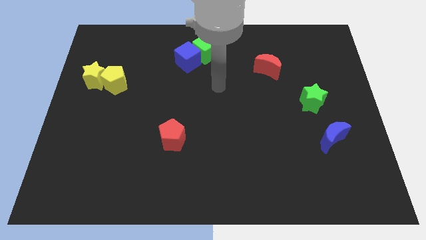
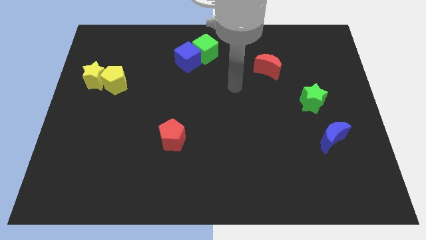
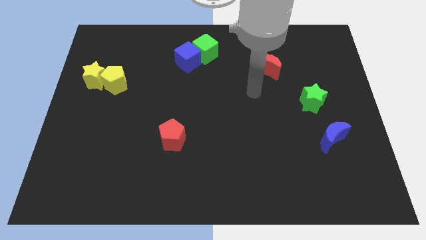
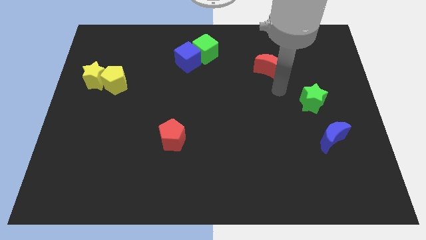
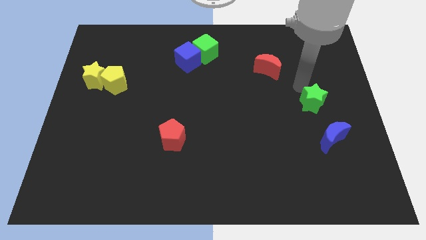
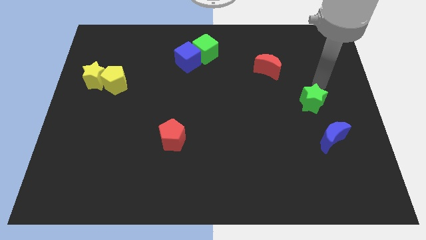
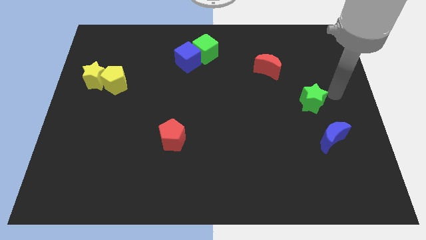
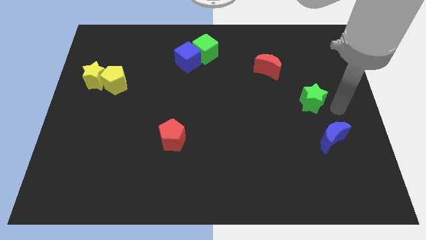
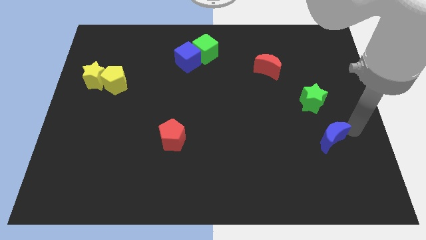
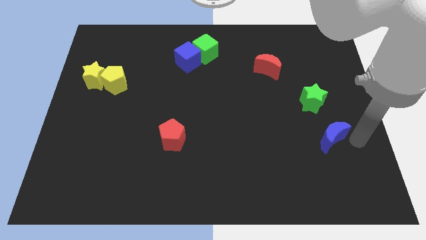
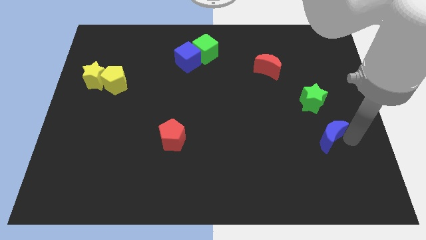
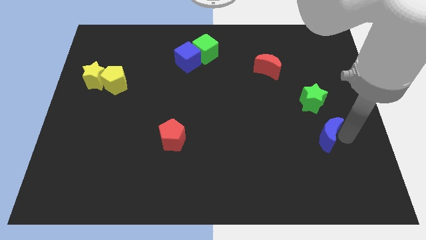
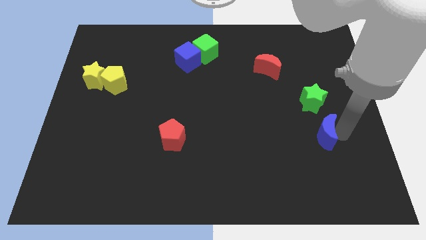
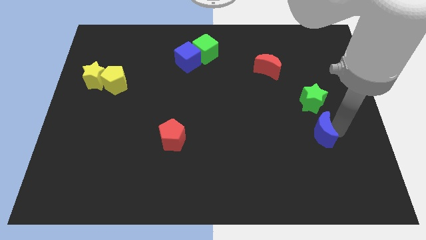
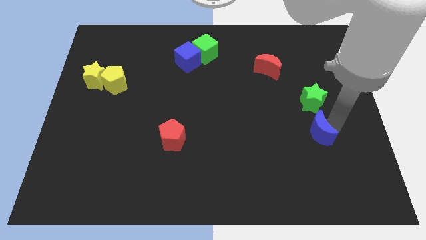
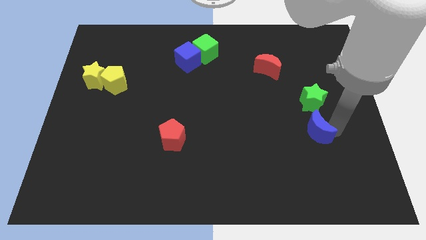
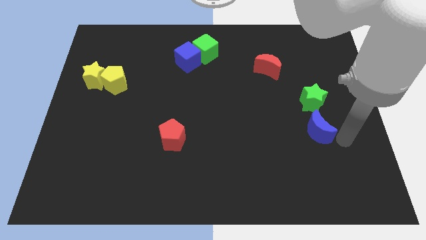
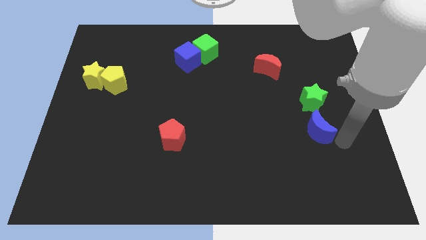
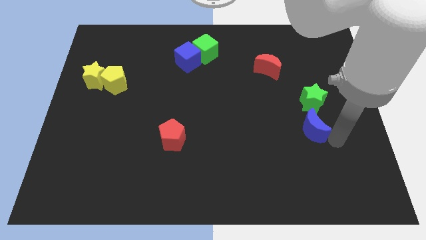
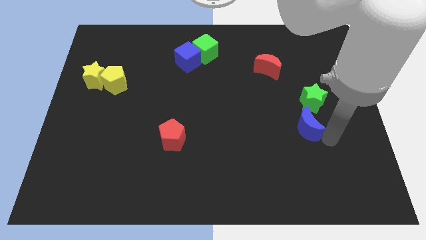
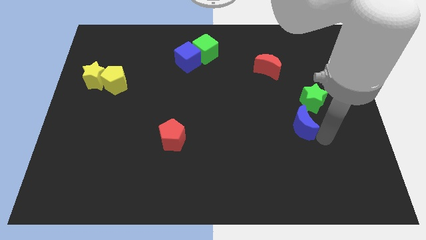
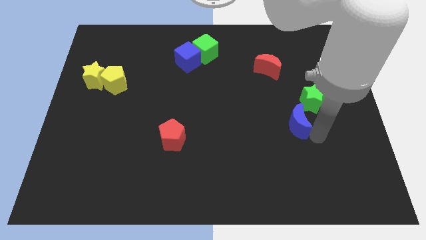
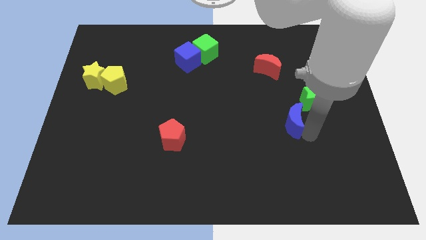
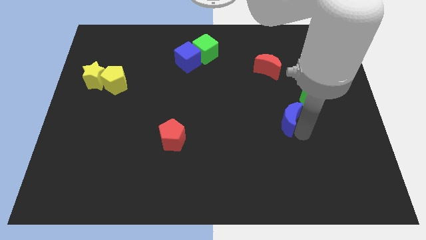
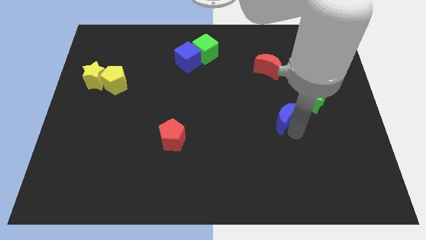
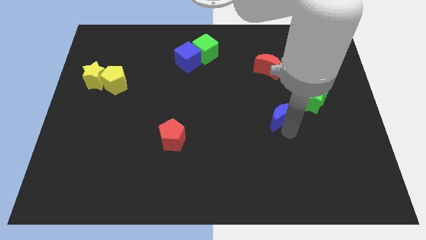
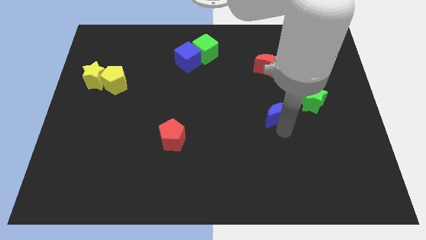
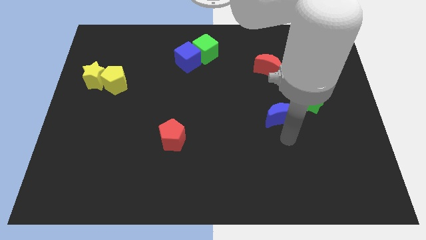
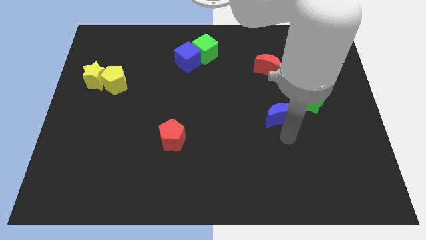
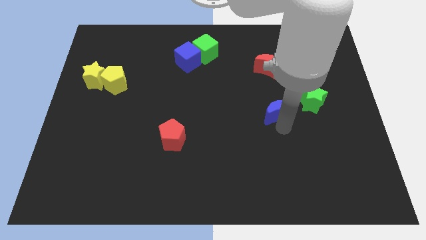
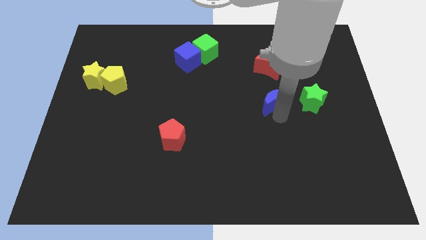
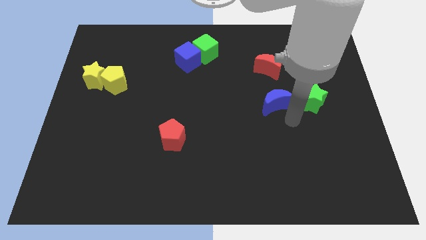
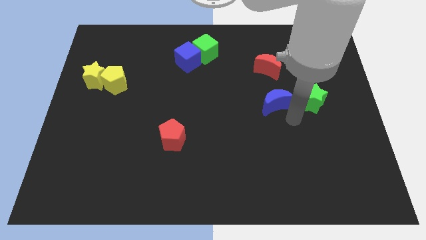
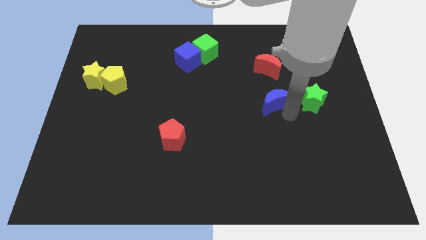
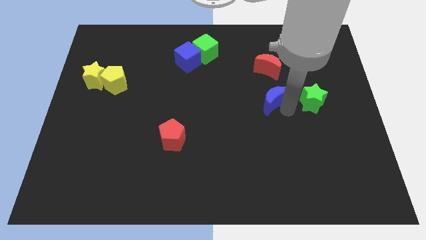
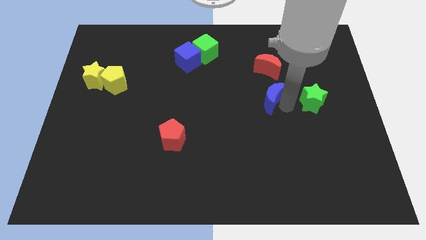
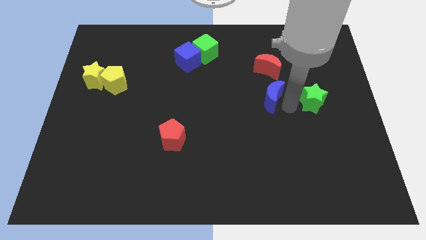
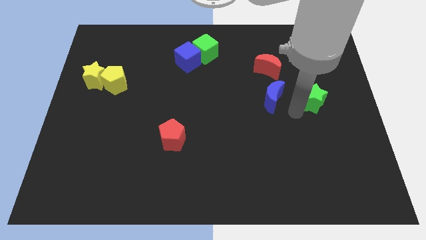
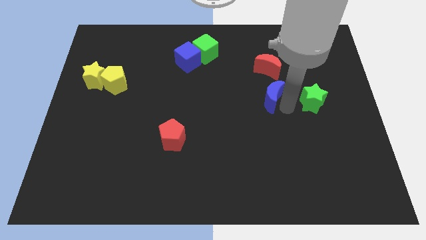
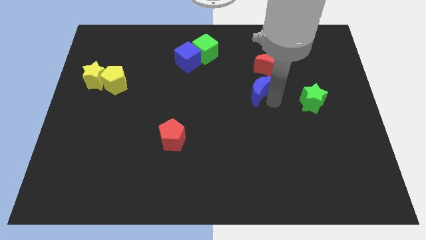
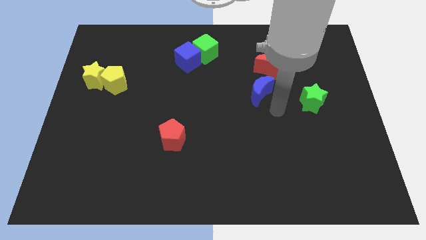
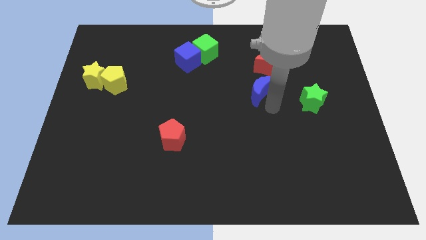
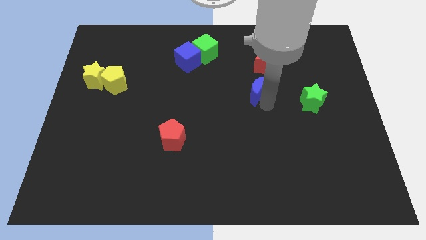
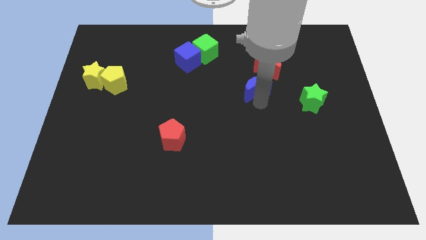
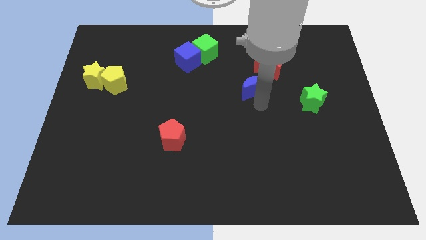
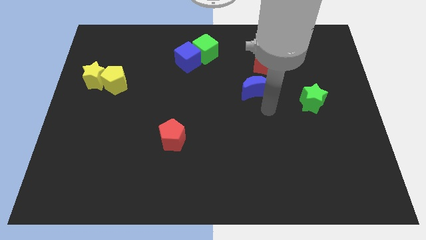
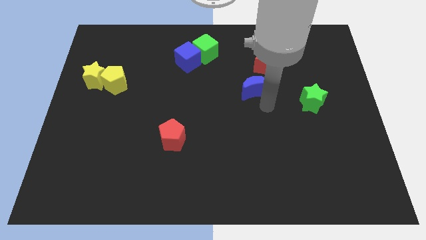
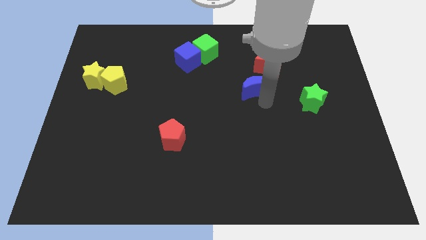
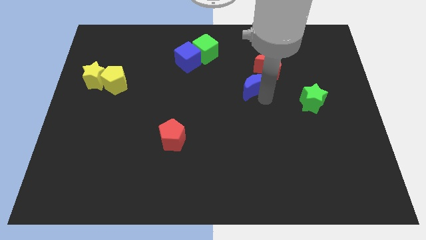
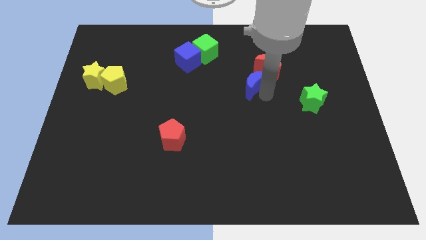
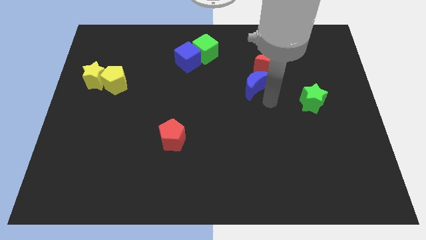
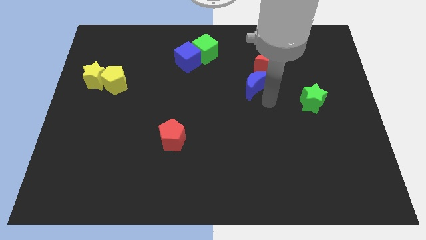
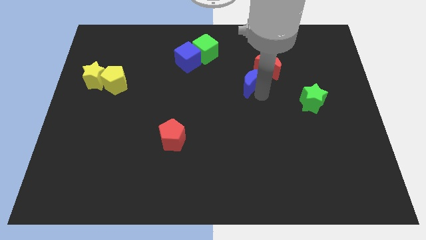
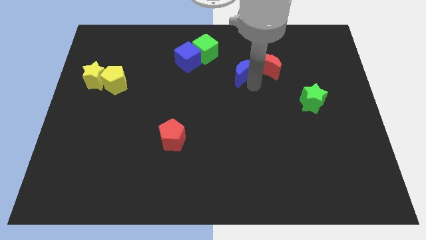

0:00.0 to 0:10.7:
move the blue moon to the bottom right side of the green cube
